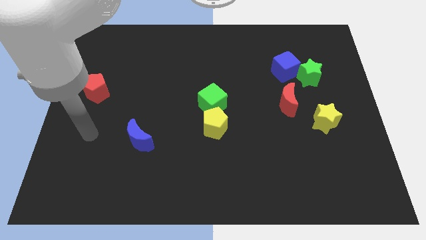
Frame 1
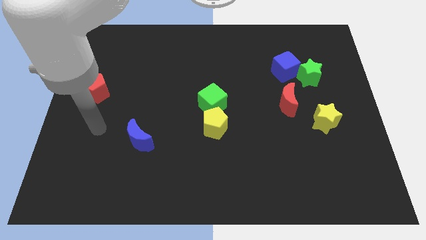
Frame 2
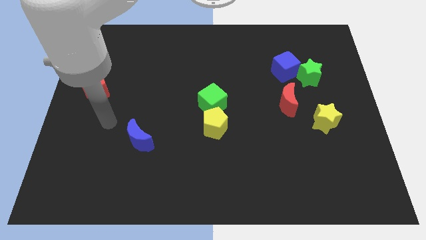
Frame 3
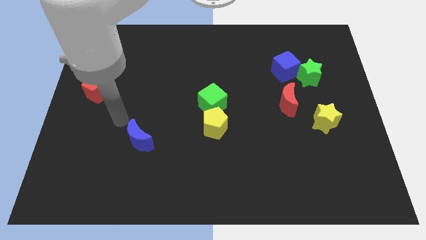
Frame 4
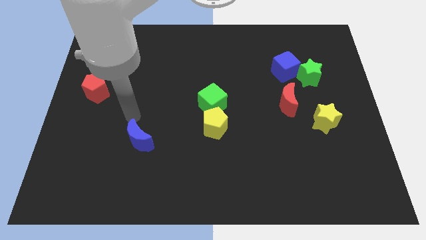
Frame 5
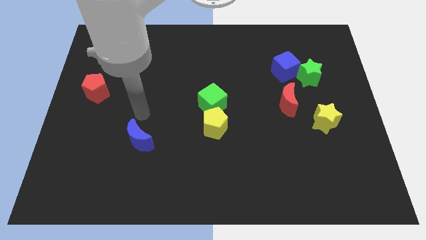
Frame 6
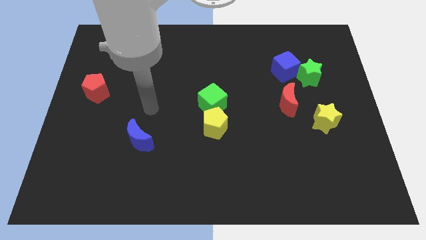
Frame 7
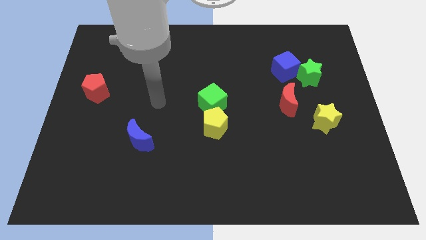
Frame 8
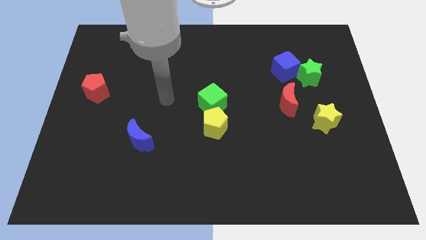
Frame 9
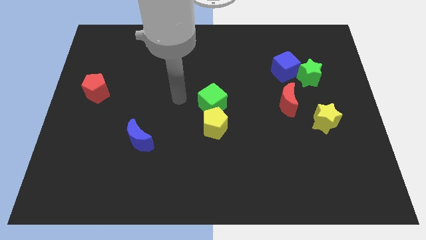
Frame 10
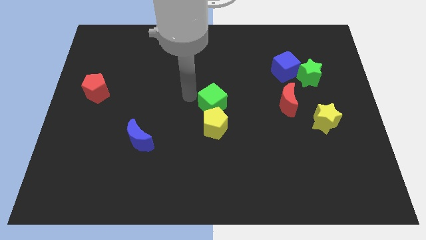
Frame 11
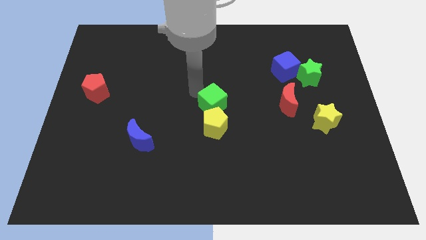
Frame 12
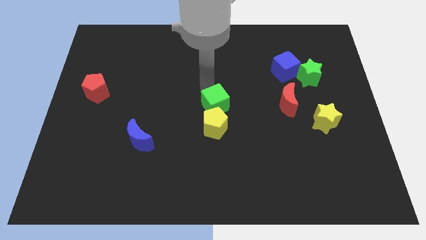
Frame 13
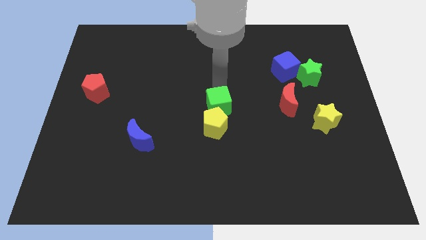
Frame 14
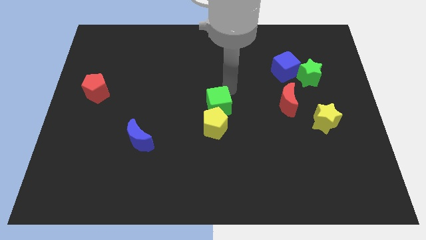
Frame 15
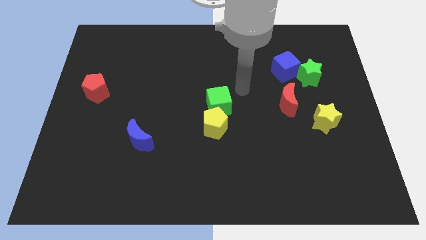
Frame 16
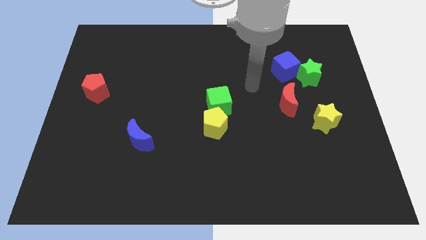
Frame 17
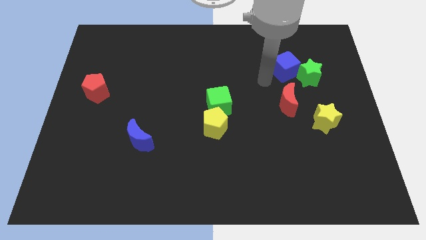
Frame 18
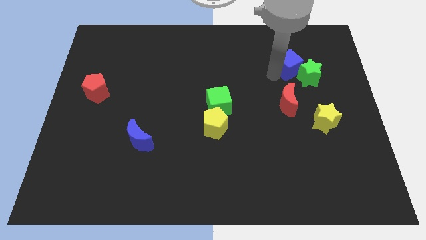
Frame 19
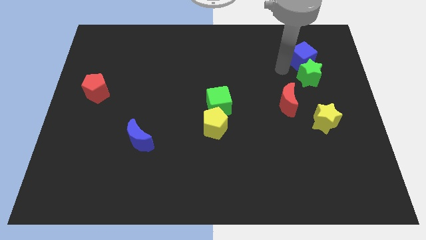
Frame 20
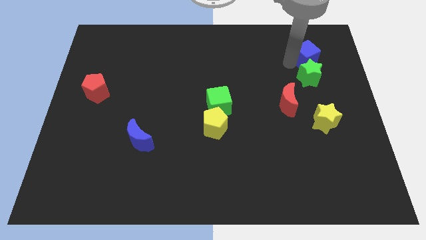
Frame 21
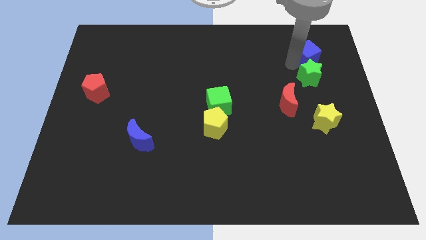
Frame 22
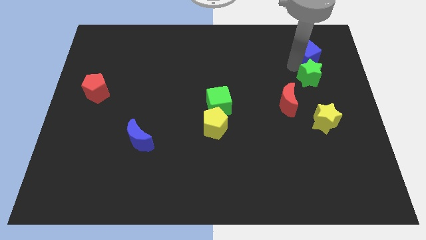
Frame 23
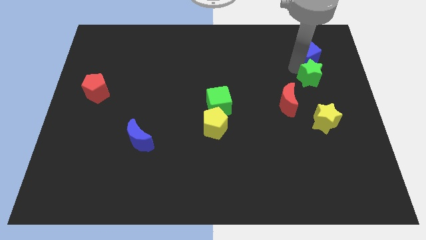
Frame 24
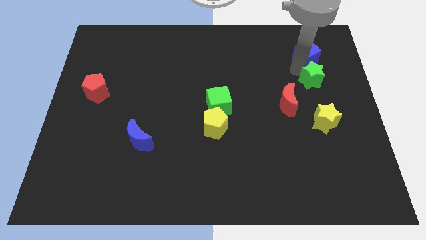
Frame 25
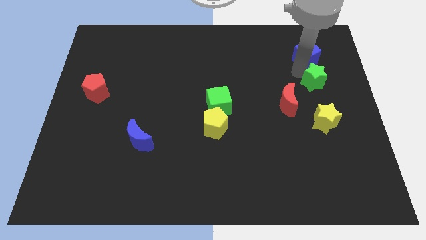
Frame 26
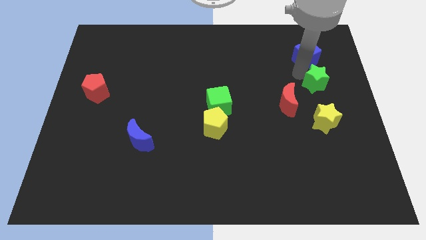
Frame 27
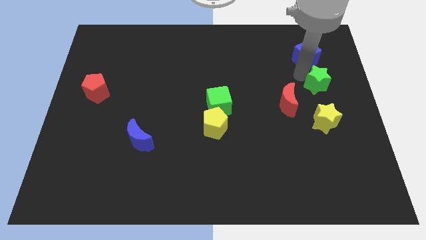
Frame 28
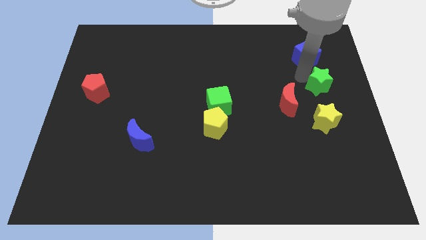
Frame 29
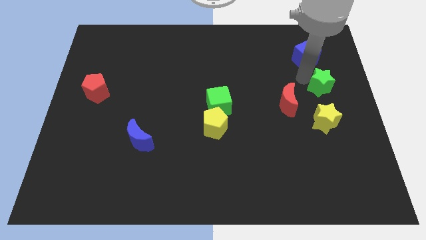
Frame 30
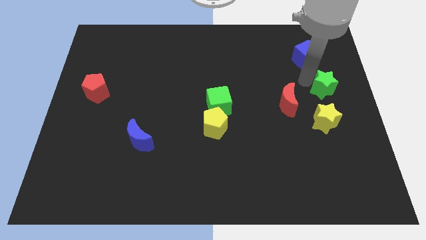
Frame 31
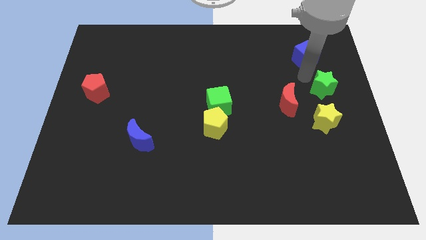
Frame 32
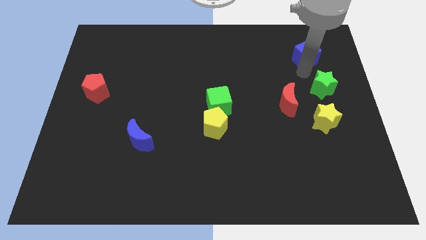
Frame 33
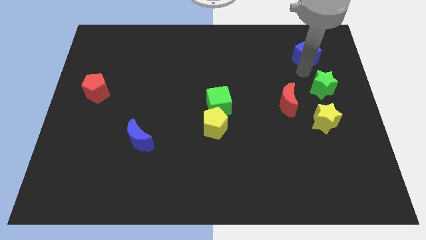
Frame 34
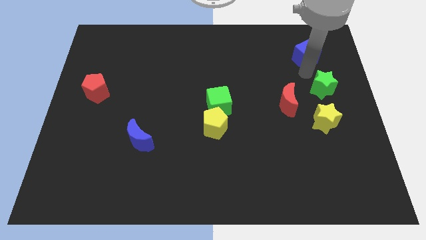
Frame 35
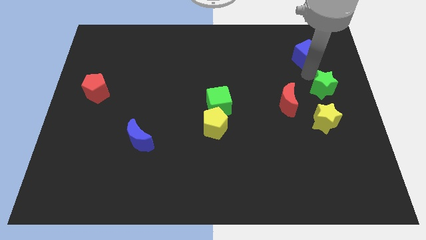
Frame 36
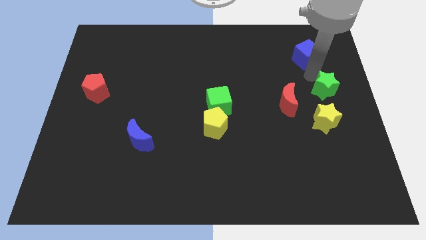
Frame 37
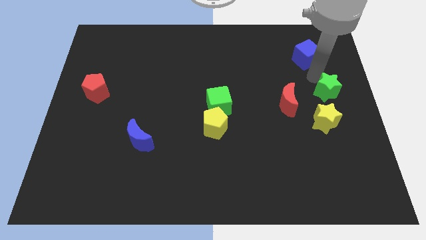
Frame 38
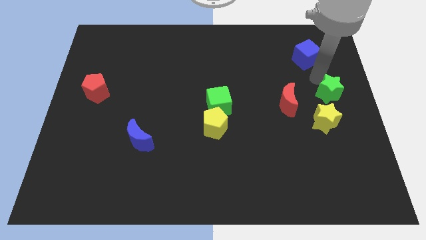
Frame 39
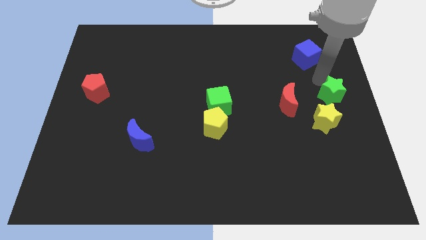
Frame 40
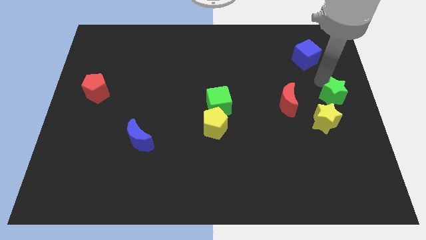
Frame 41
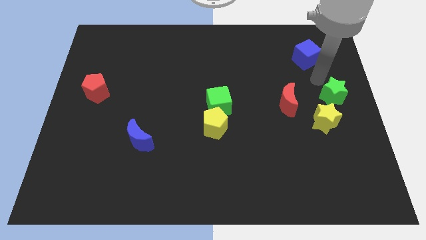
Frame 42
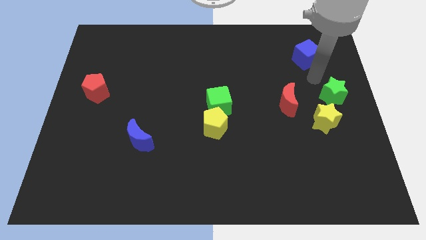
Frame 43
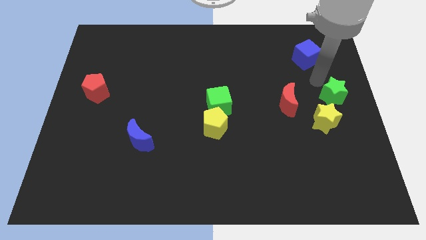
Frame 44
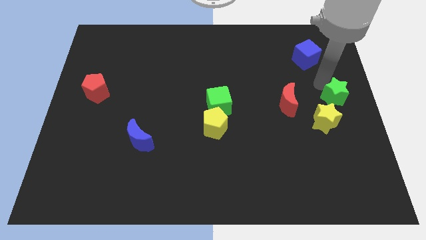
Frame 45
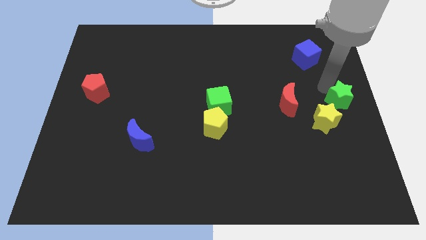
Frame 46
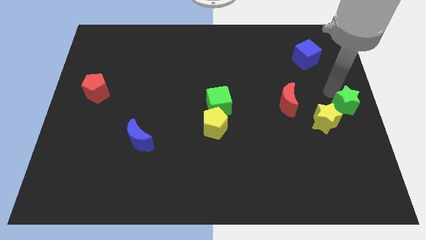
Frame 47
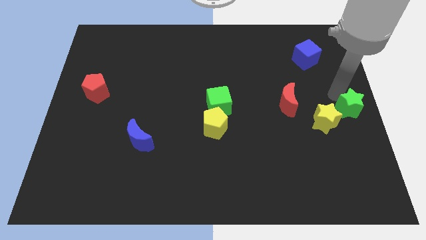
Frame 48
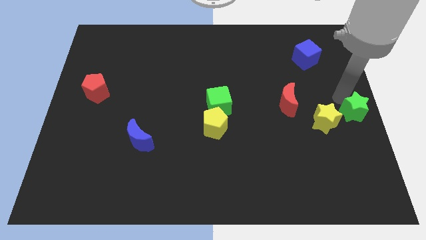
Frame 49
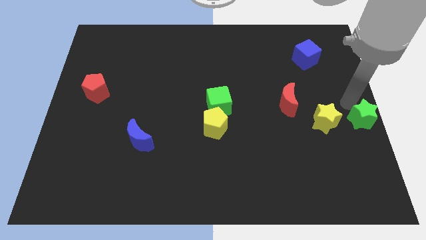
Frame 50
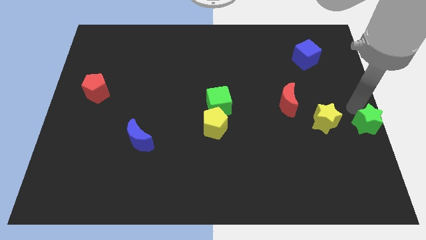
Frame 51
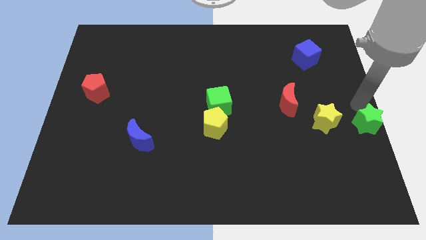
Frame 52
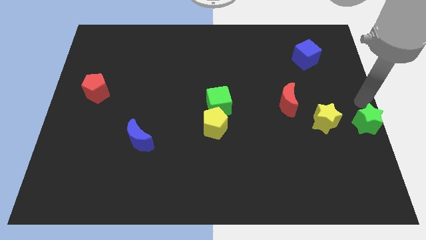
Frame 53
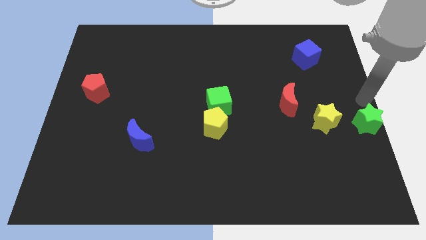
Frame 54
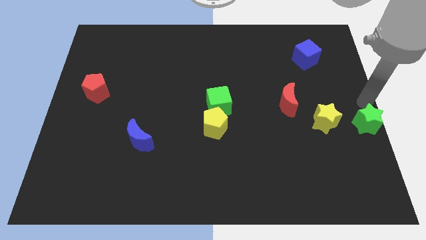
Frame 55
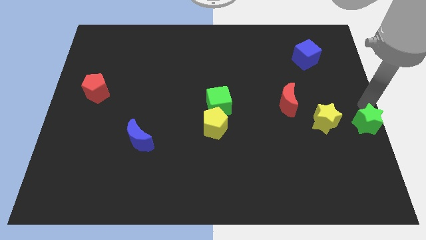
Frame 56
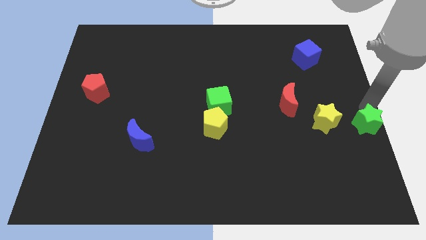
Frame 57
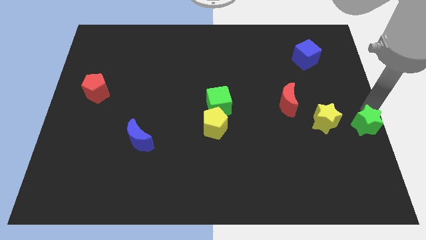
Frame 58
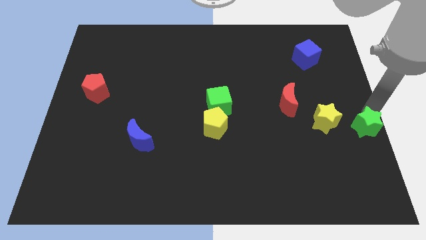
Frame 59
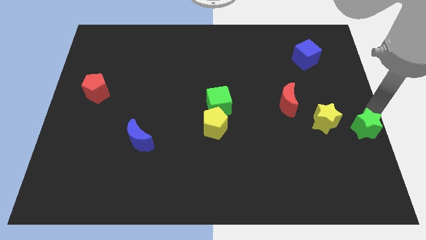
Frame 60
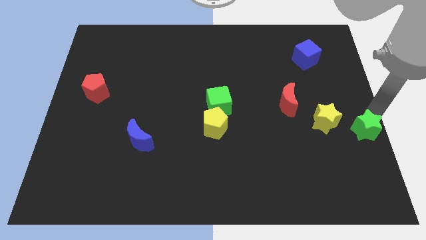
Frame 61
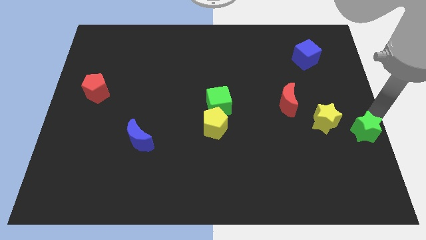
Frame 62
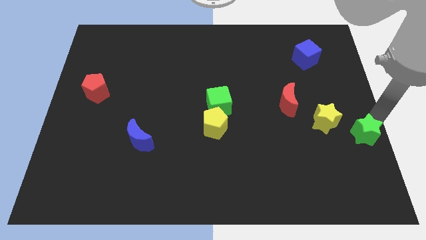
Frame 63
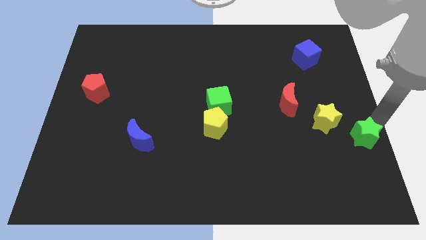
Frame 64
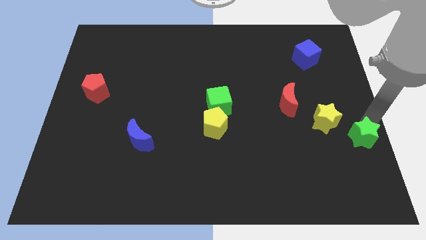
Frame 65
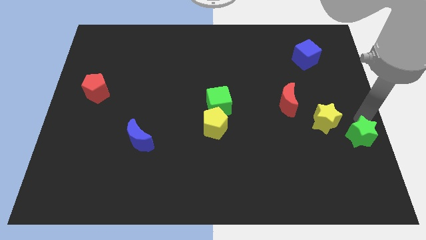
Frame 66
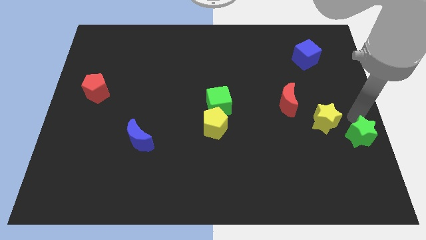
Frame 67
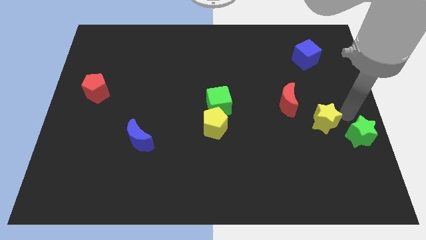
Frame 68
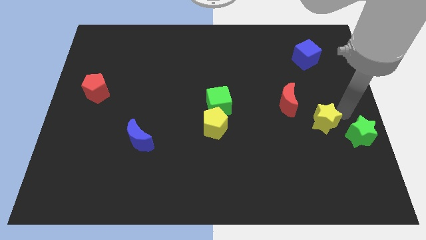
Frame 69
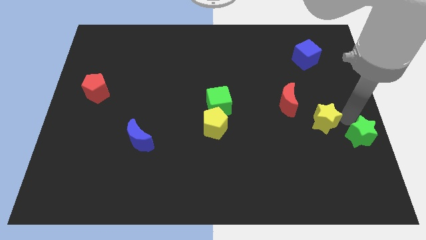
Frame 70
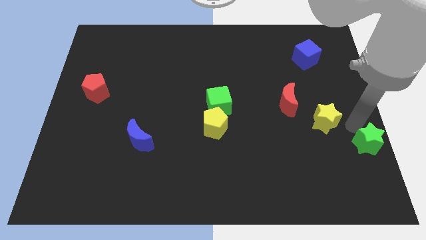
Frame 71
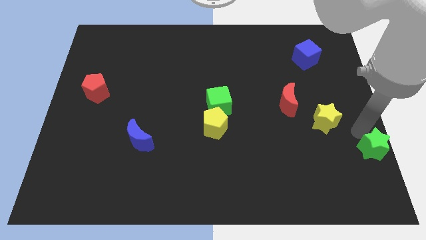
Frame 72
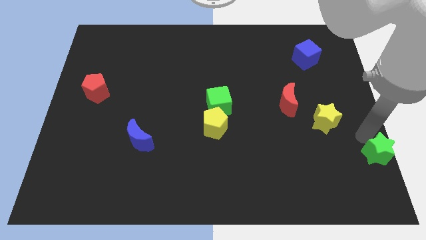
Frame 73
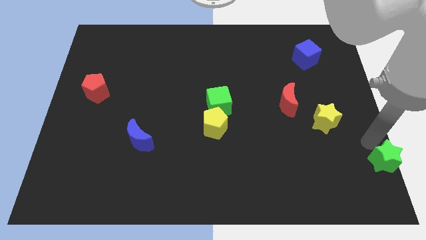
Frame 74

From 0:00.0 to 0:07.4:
slide the green star to the bottom right of the board
